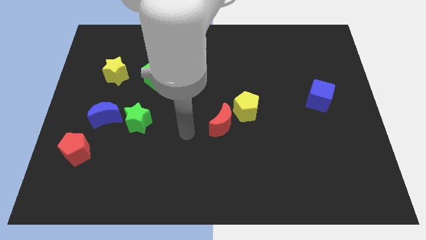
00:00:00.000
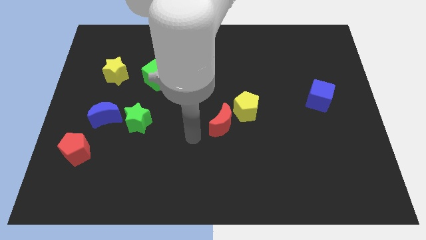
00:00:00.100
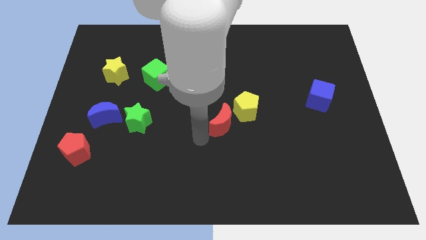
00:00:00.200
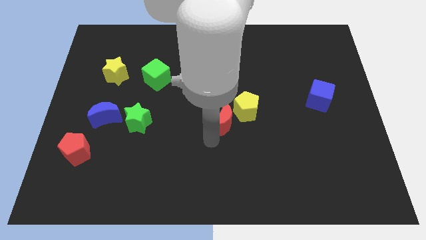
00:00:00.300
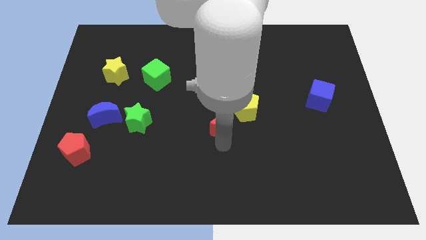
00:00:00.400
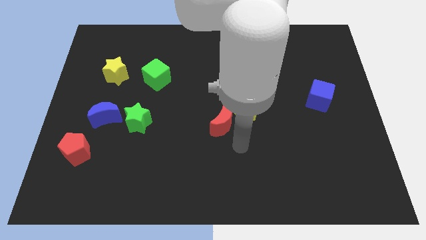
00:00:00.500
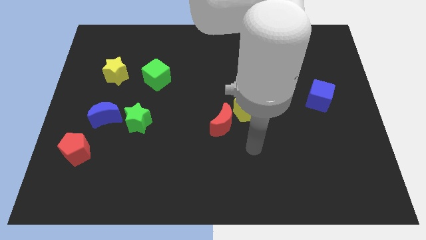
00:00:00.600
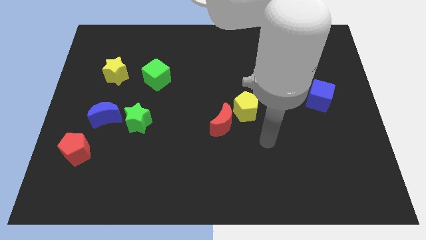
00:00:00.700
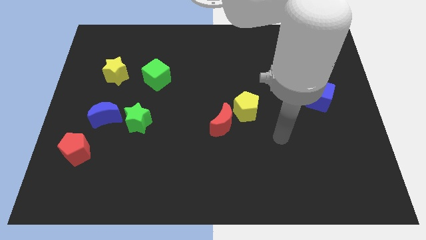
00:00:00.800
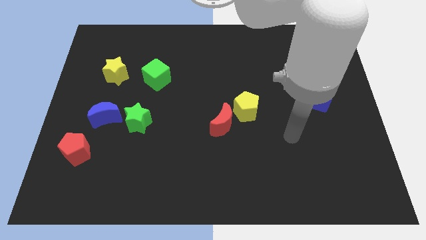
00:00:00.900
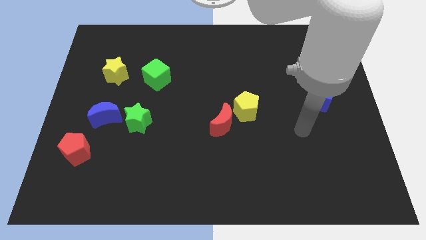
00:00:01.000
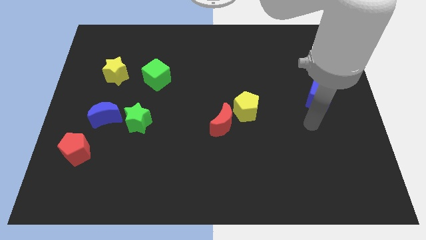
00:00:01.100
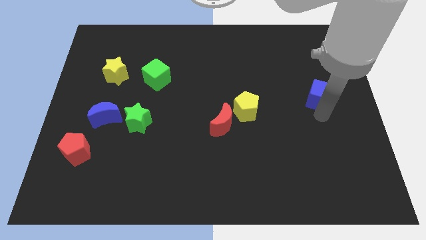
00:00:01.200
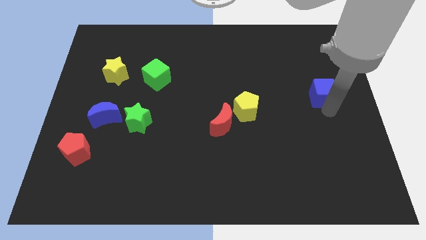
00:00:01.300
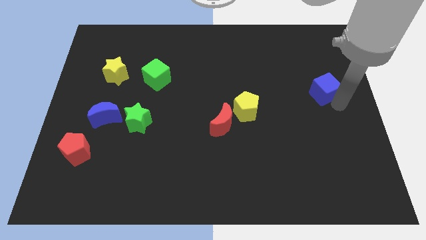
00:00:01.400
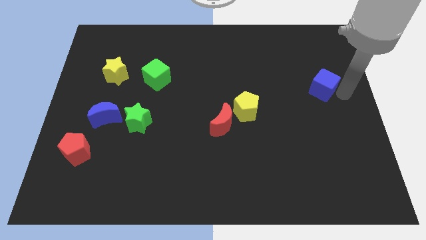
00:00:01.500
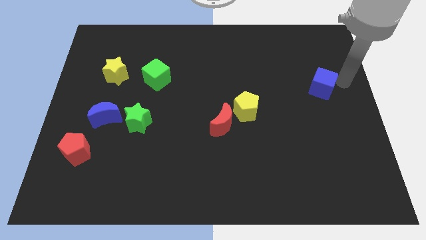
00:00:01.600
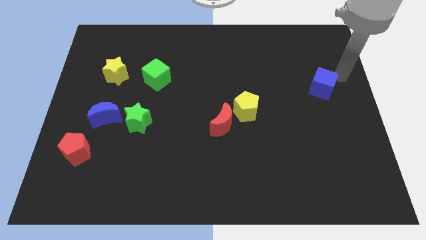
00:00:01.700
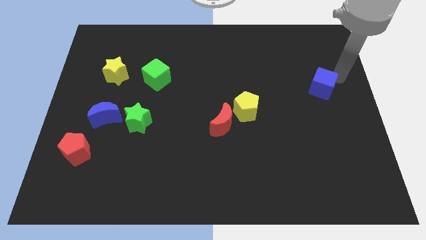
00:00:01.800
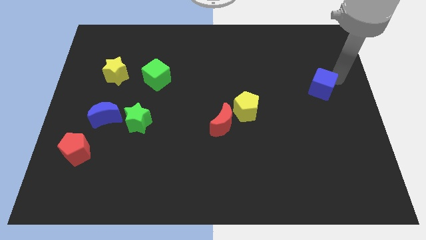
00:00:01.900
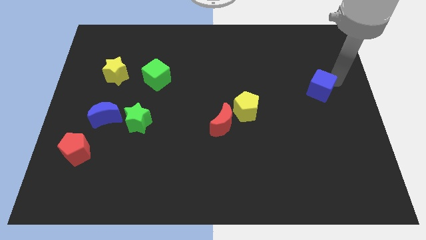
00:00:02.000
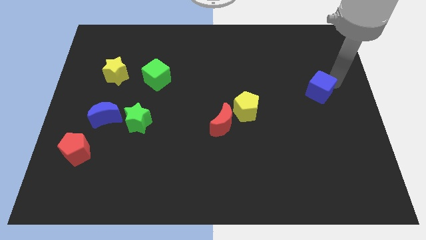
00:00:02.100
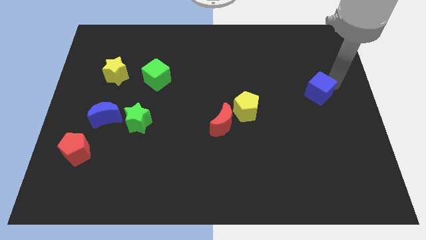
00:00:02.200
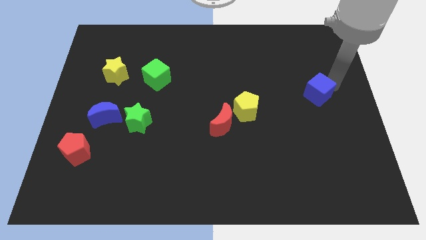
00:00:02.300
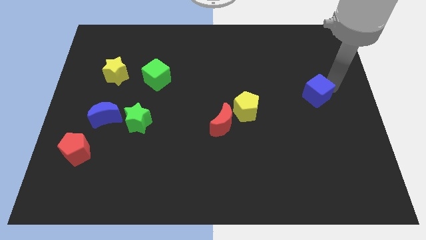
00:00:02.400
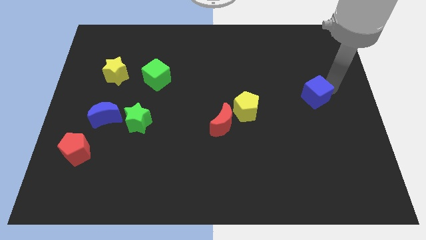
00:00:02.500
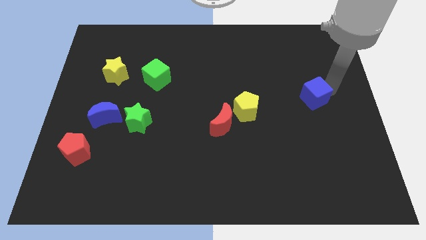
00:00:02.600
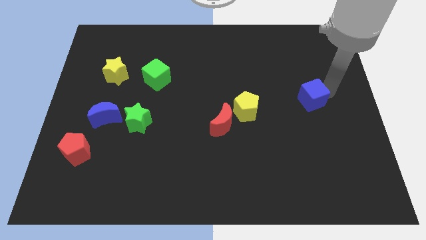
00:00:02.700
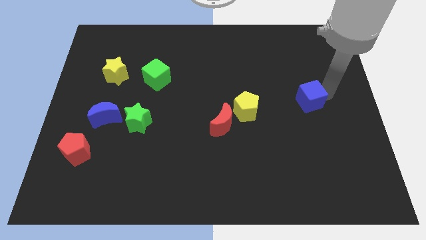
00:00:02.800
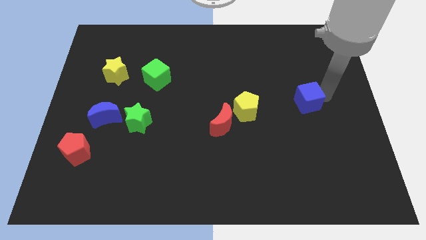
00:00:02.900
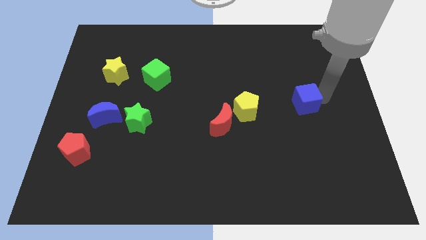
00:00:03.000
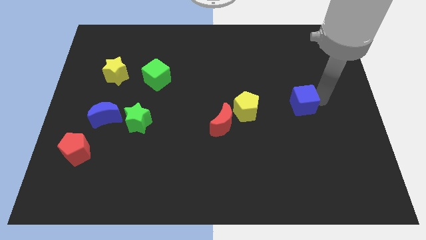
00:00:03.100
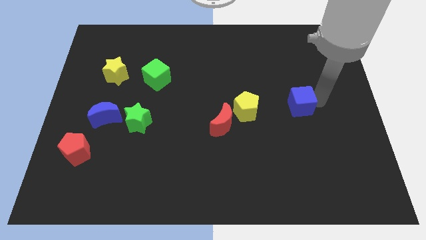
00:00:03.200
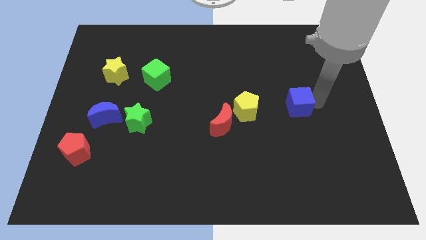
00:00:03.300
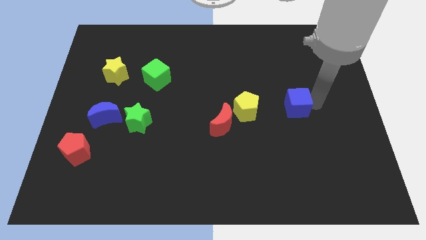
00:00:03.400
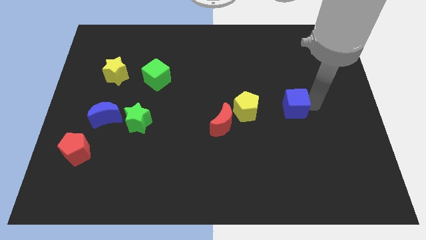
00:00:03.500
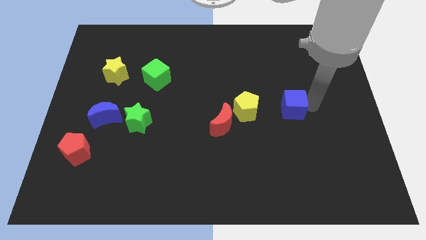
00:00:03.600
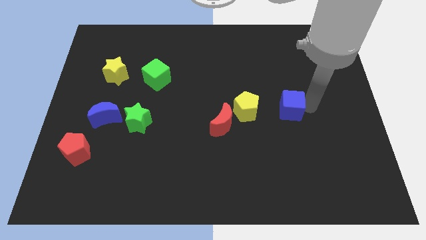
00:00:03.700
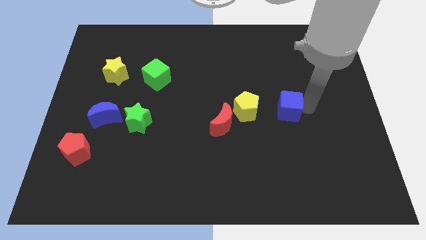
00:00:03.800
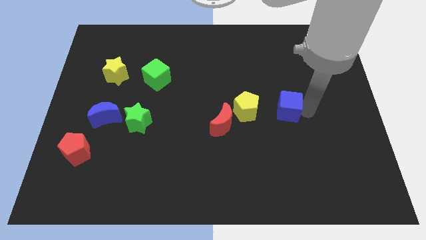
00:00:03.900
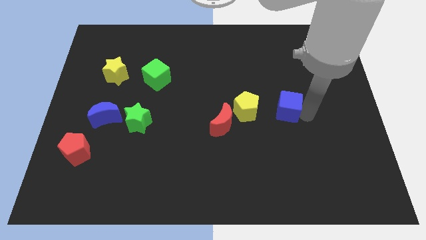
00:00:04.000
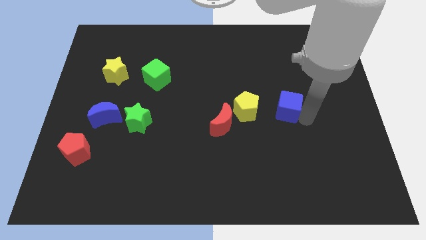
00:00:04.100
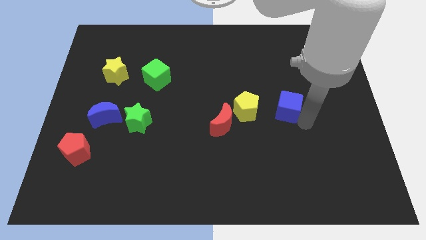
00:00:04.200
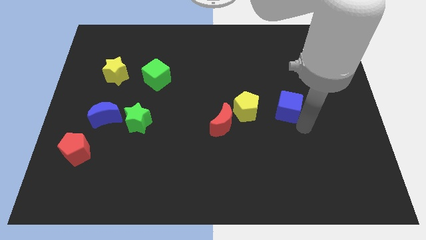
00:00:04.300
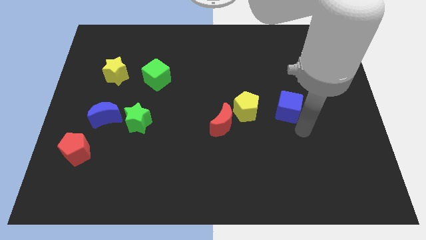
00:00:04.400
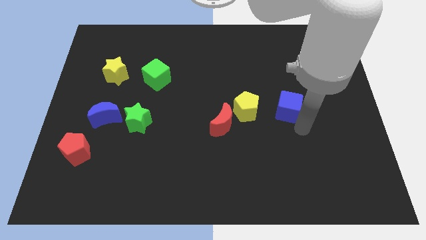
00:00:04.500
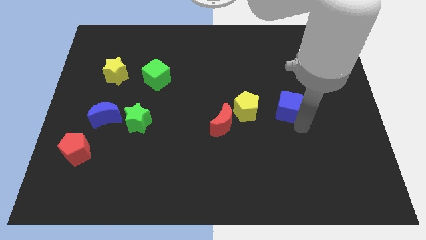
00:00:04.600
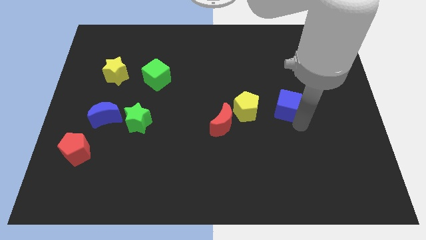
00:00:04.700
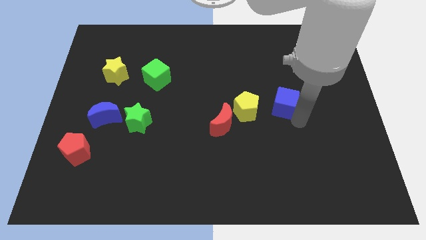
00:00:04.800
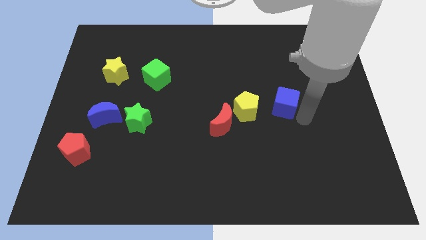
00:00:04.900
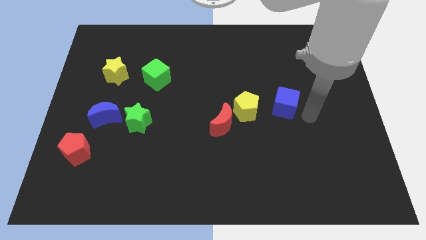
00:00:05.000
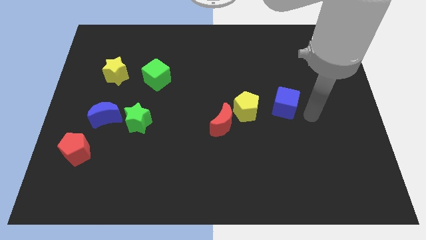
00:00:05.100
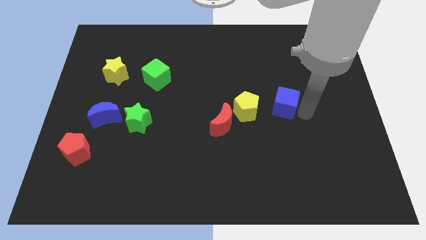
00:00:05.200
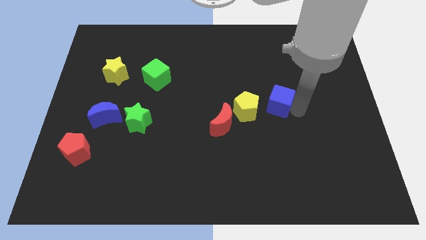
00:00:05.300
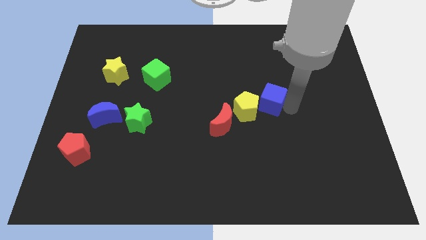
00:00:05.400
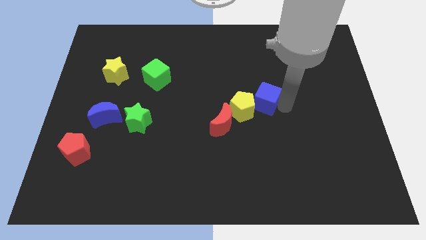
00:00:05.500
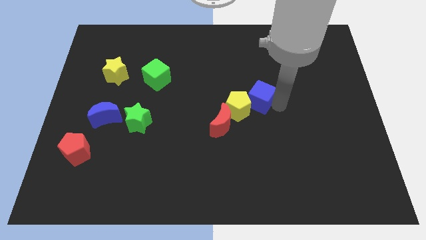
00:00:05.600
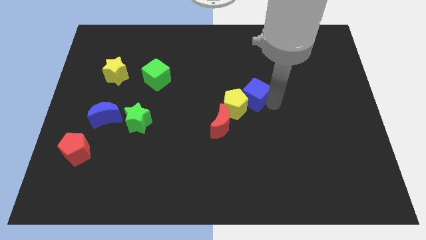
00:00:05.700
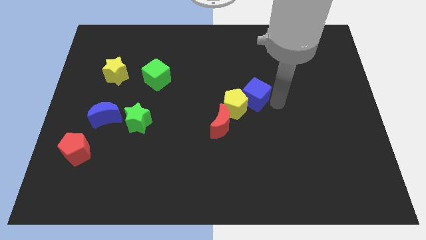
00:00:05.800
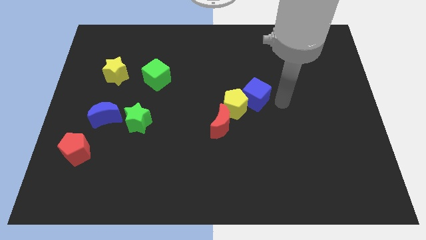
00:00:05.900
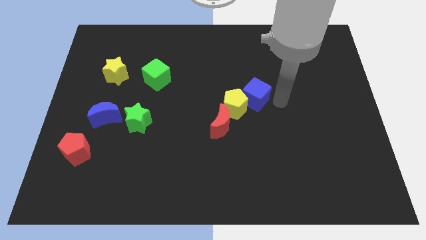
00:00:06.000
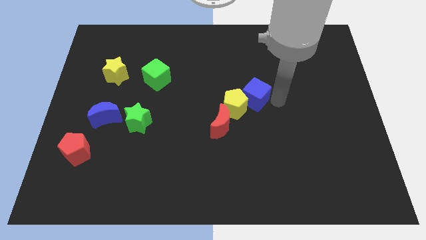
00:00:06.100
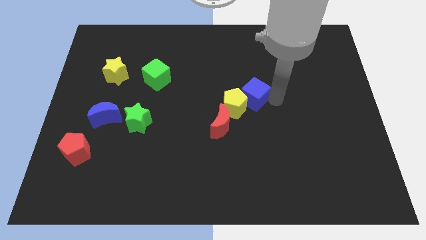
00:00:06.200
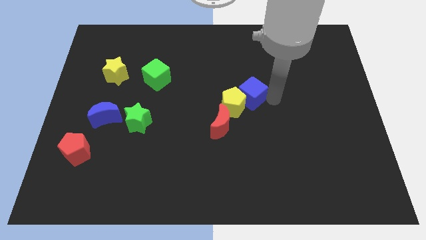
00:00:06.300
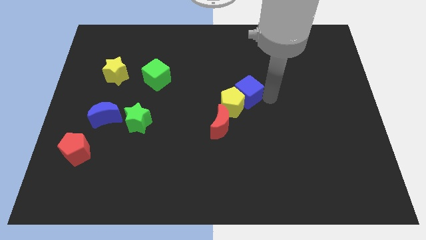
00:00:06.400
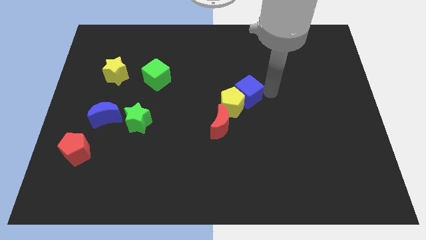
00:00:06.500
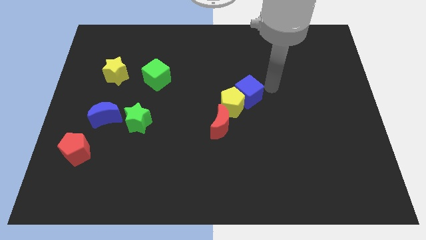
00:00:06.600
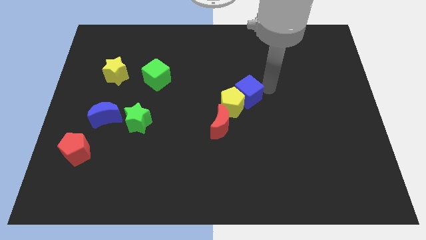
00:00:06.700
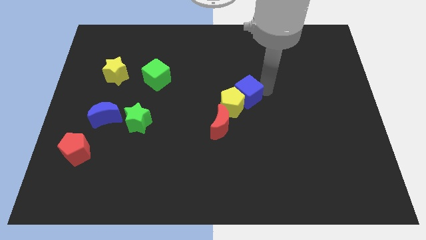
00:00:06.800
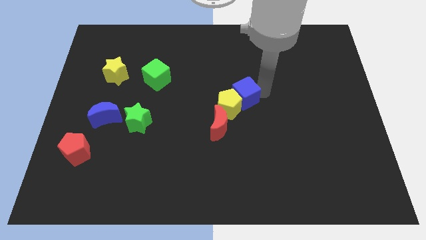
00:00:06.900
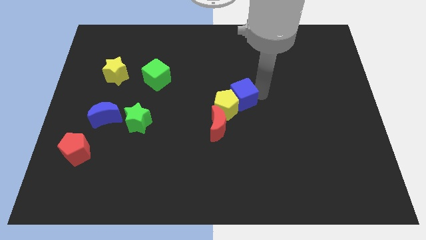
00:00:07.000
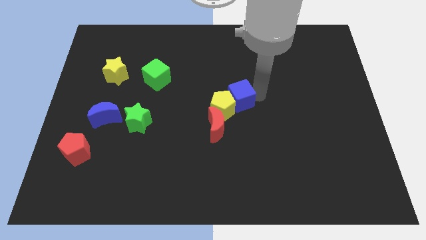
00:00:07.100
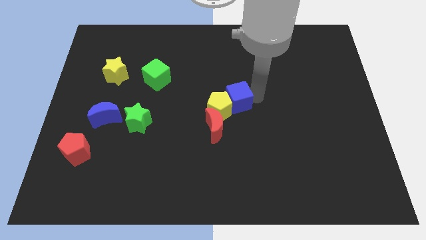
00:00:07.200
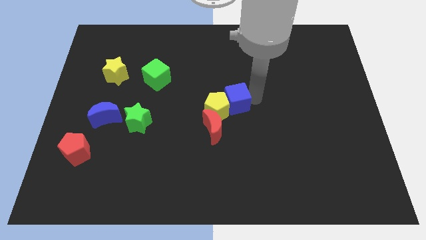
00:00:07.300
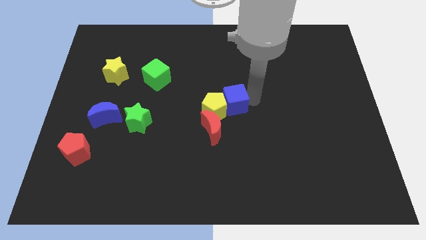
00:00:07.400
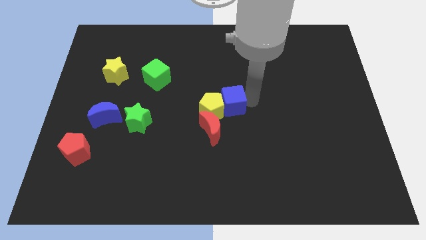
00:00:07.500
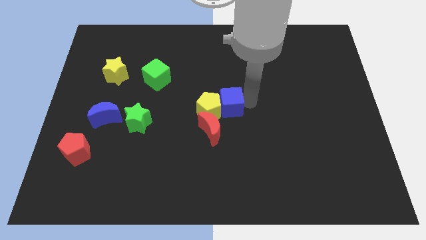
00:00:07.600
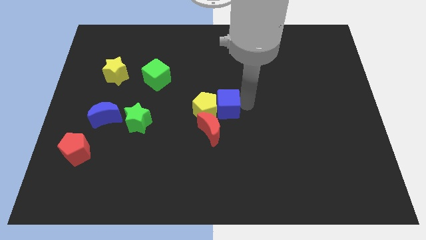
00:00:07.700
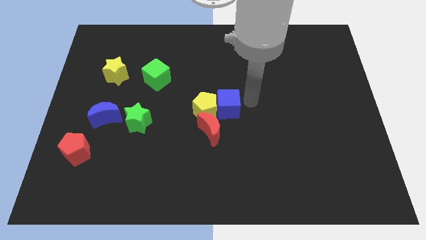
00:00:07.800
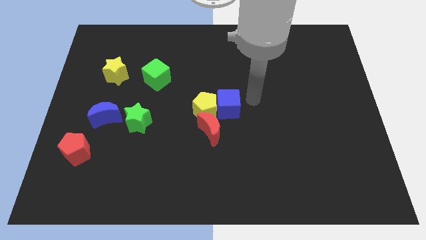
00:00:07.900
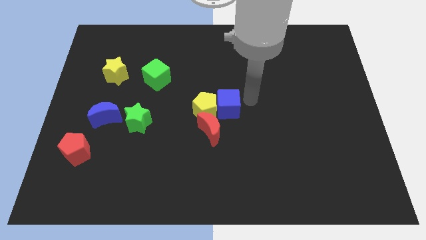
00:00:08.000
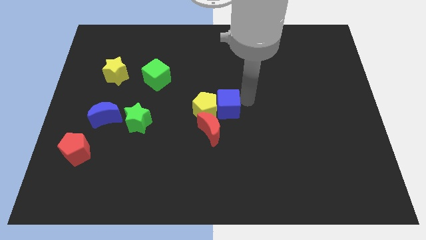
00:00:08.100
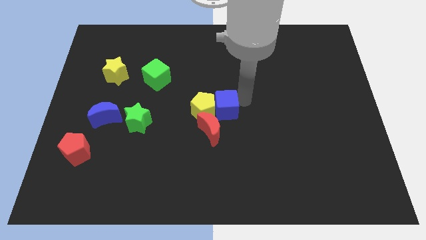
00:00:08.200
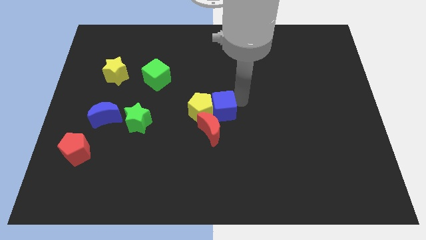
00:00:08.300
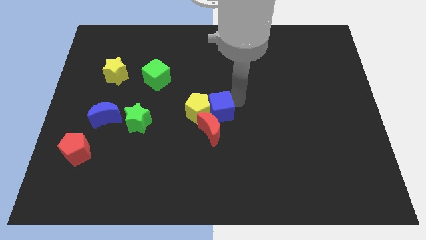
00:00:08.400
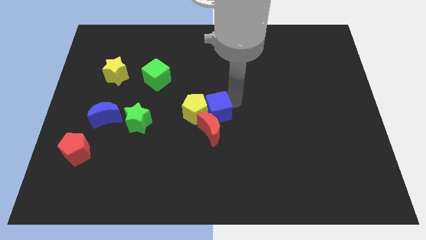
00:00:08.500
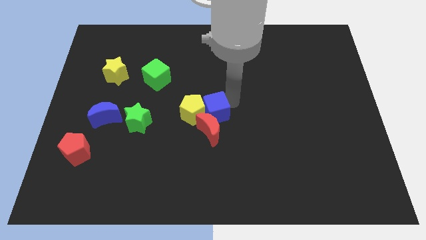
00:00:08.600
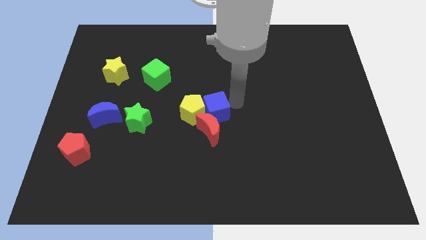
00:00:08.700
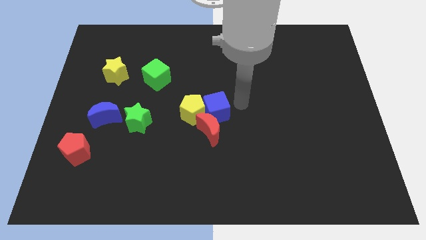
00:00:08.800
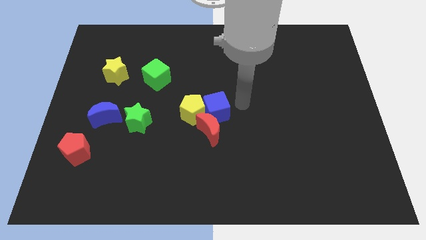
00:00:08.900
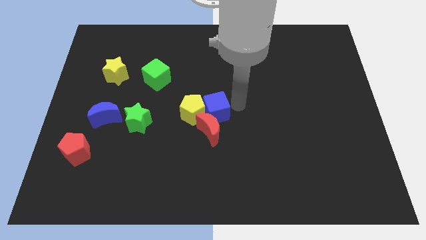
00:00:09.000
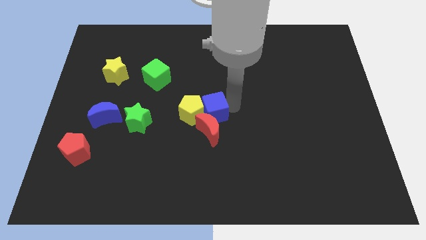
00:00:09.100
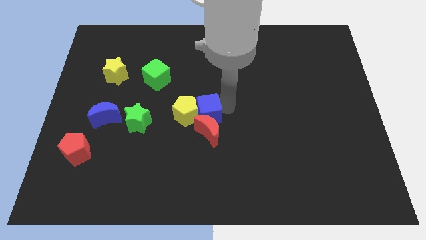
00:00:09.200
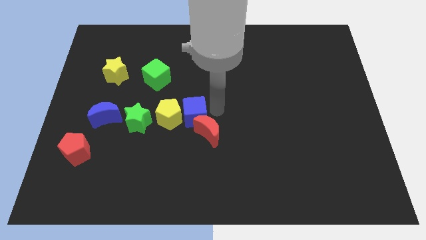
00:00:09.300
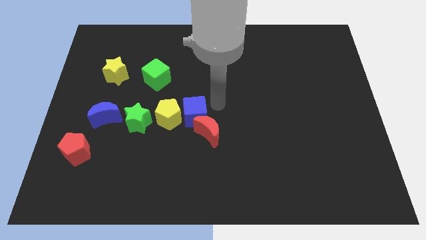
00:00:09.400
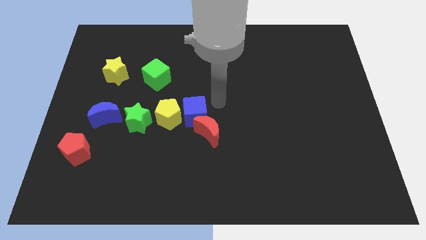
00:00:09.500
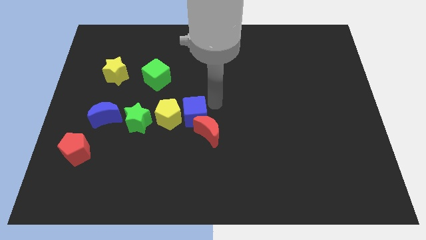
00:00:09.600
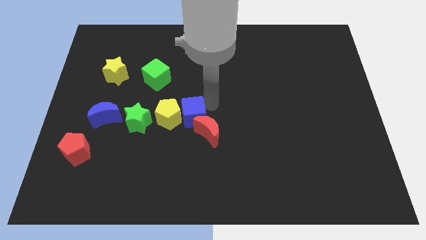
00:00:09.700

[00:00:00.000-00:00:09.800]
move the blue cube to the left side of the red moon
